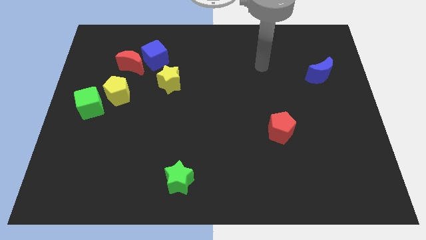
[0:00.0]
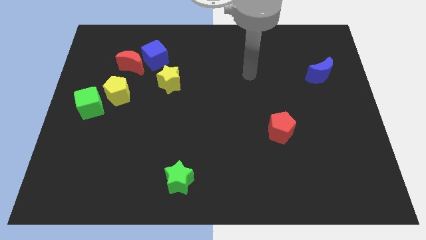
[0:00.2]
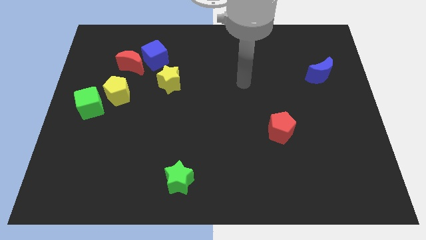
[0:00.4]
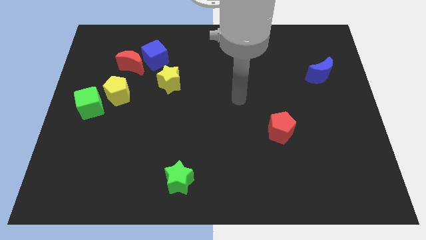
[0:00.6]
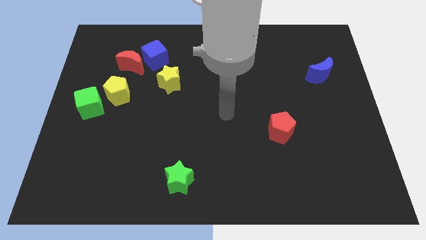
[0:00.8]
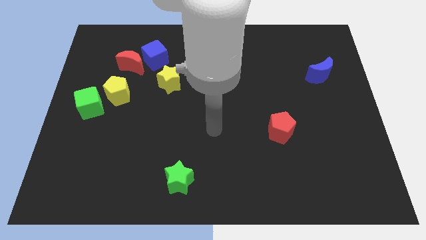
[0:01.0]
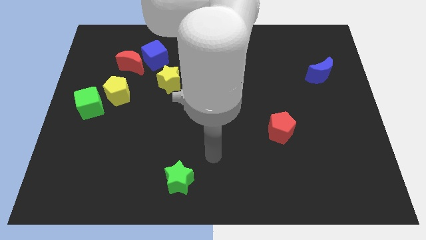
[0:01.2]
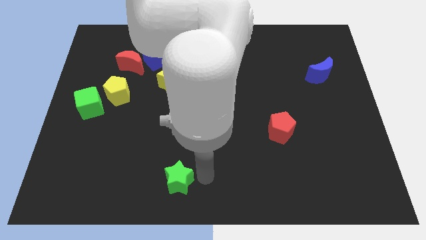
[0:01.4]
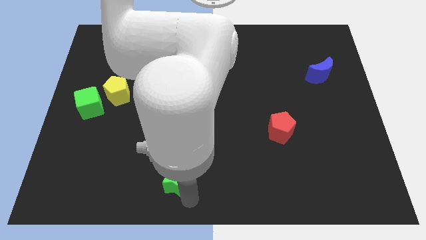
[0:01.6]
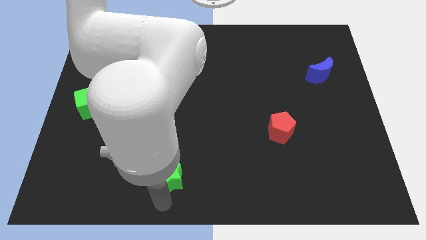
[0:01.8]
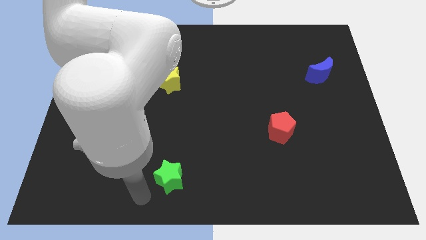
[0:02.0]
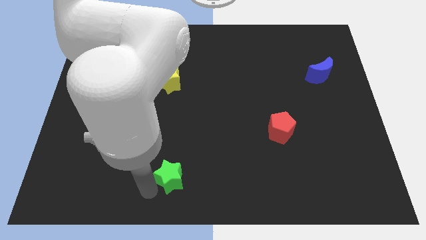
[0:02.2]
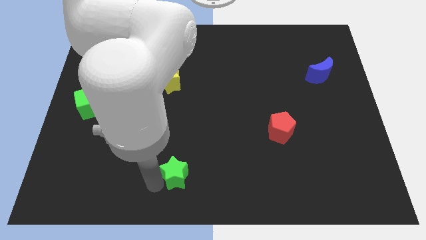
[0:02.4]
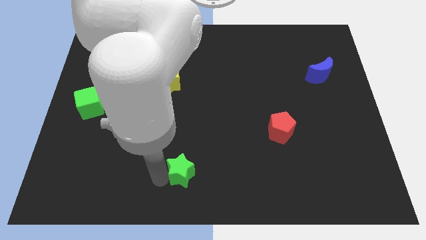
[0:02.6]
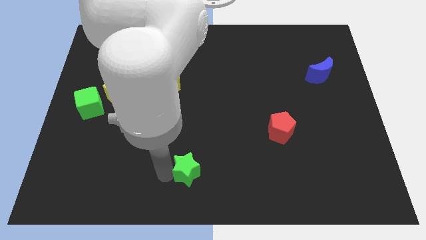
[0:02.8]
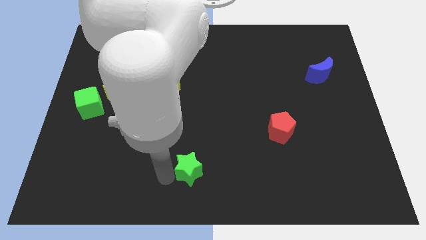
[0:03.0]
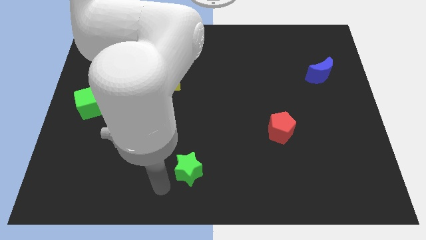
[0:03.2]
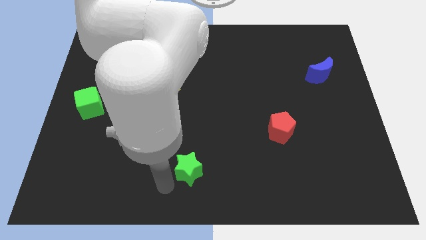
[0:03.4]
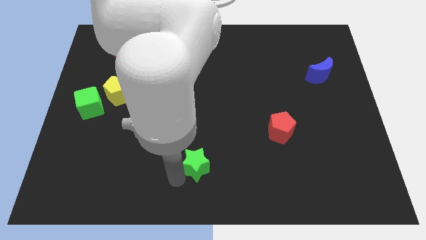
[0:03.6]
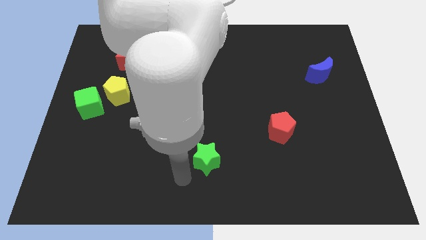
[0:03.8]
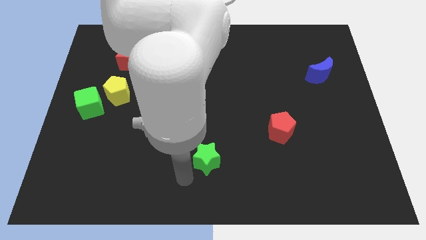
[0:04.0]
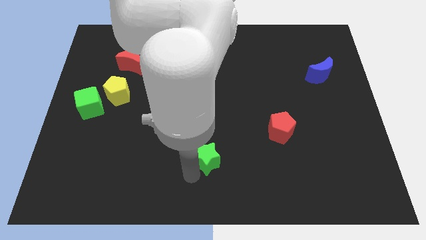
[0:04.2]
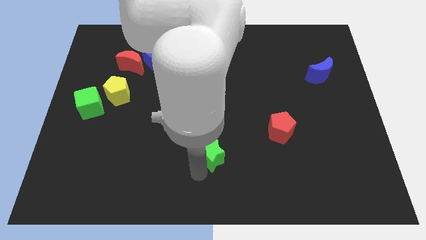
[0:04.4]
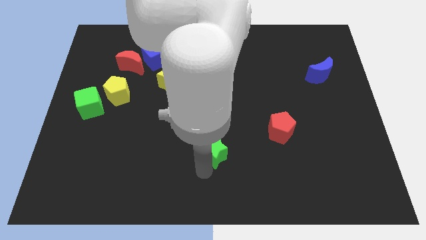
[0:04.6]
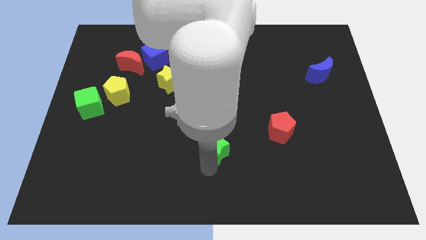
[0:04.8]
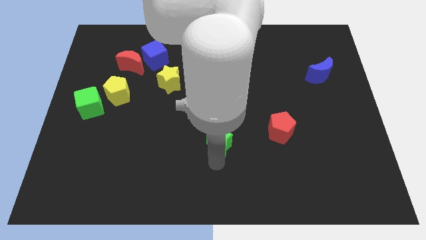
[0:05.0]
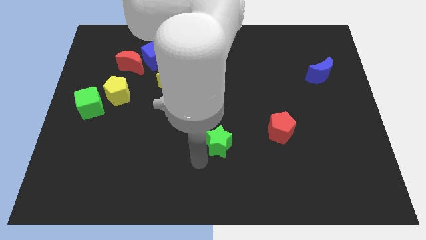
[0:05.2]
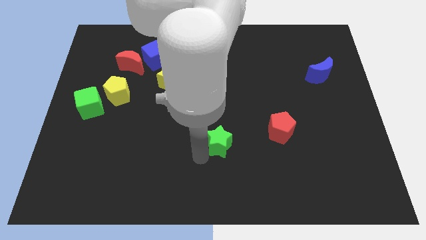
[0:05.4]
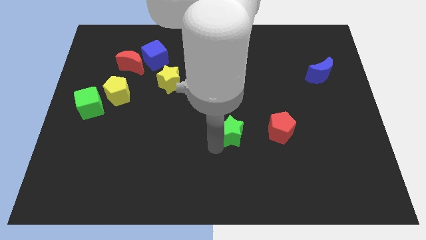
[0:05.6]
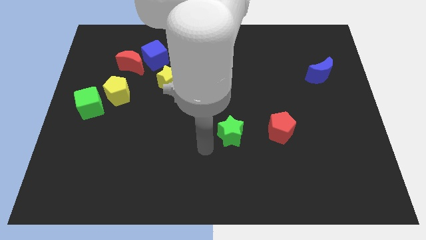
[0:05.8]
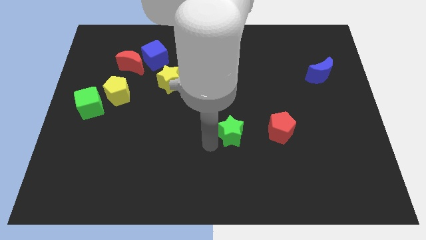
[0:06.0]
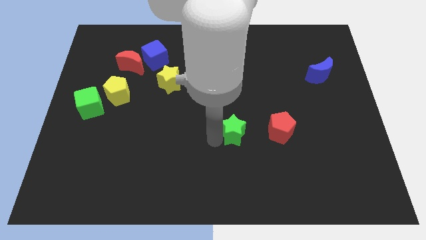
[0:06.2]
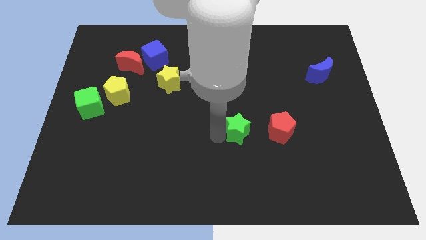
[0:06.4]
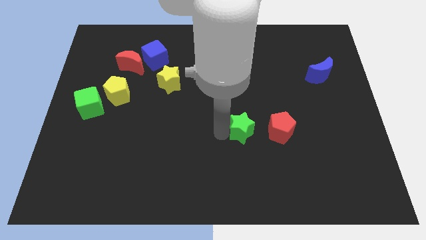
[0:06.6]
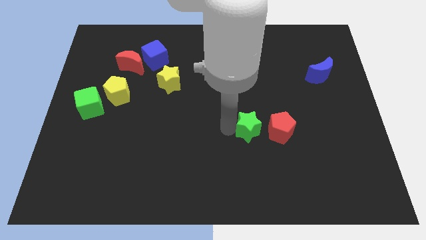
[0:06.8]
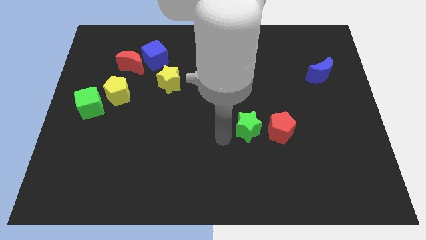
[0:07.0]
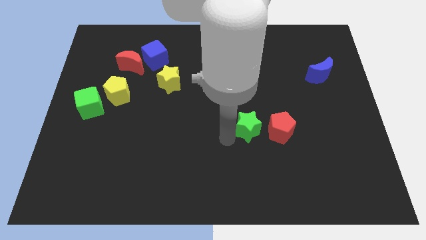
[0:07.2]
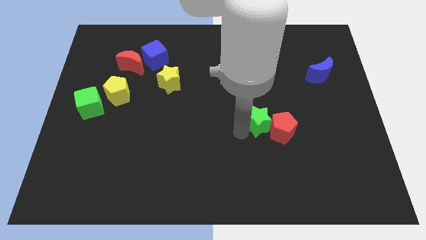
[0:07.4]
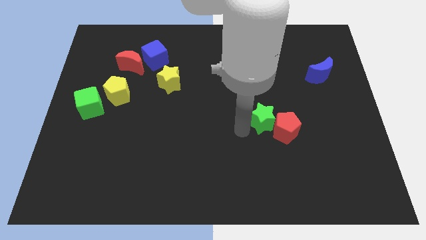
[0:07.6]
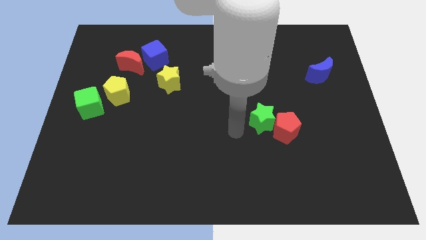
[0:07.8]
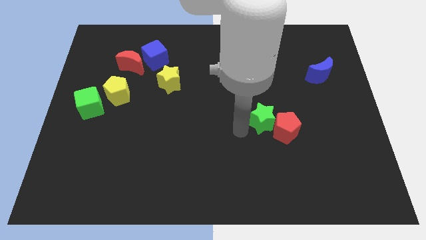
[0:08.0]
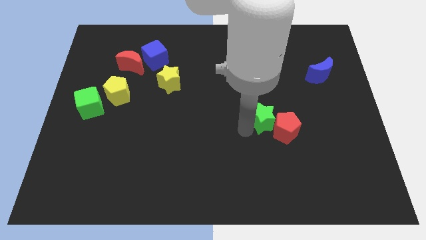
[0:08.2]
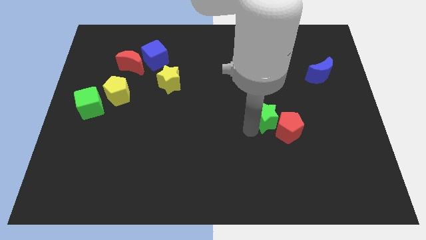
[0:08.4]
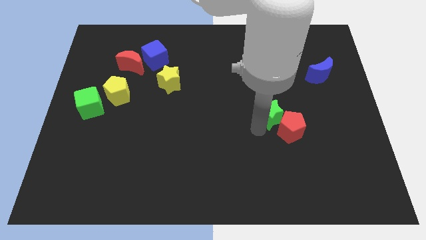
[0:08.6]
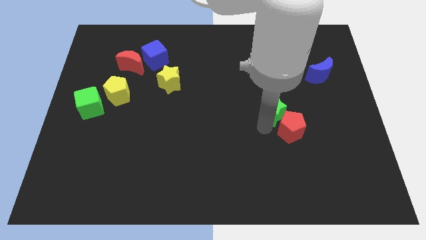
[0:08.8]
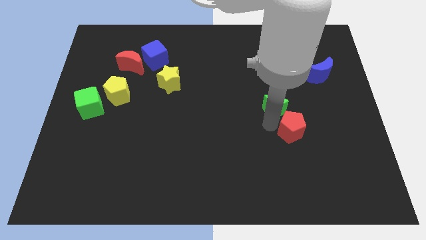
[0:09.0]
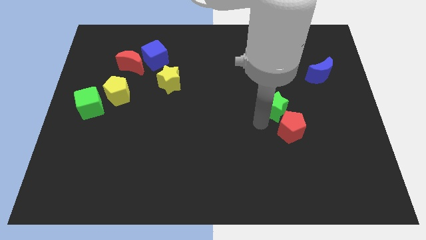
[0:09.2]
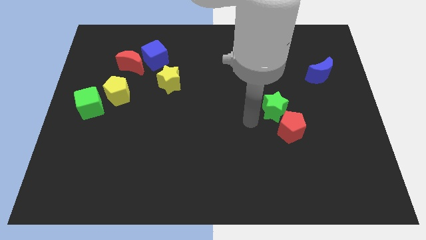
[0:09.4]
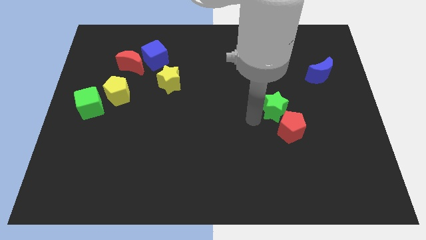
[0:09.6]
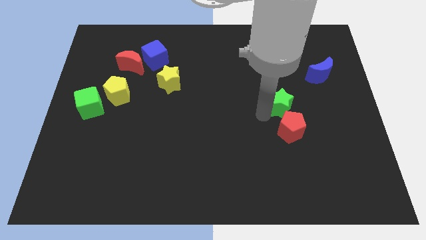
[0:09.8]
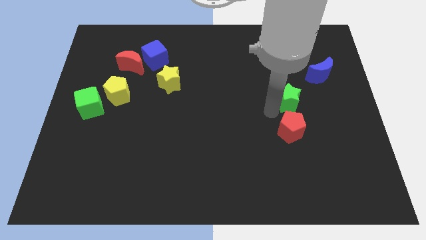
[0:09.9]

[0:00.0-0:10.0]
put the green star to the bottom left side of the blue moon
